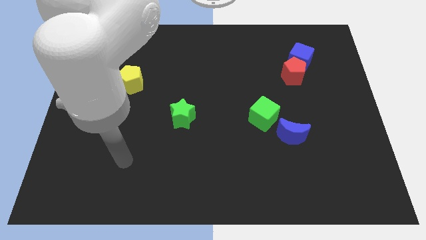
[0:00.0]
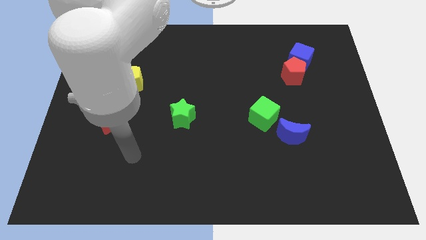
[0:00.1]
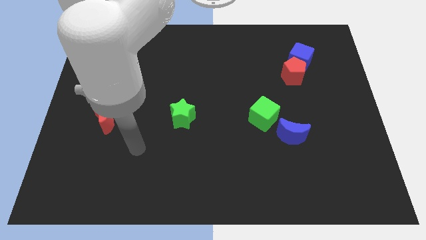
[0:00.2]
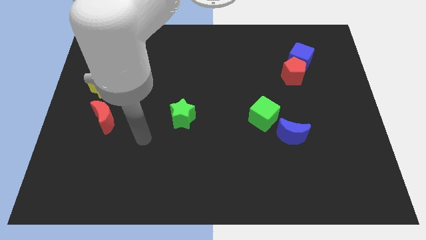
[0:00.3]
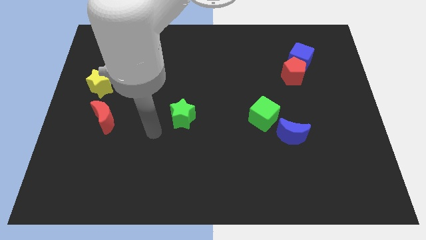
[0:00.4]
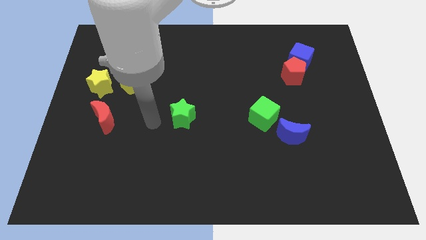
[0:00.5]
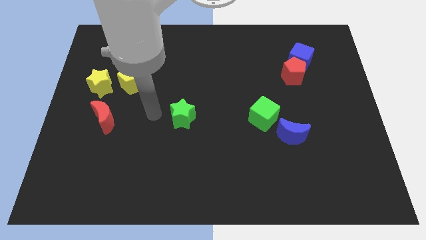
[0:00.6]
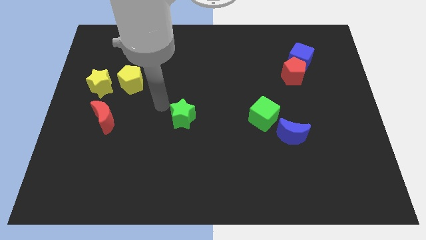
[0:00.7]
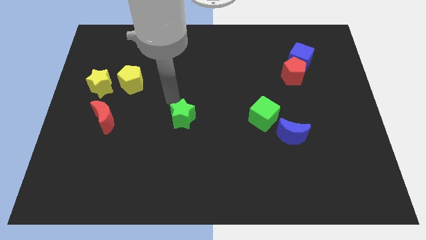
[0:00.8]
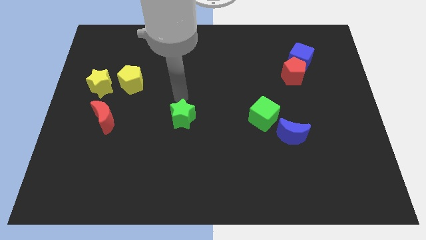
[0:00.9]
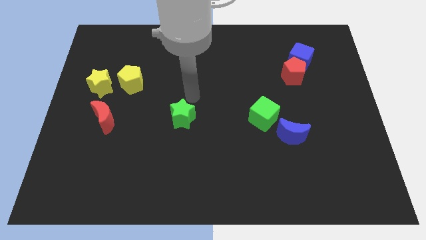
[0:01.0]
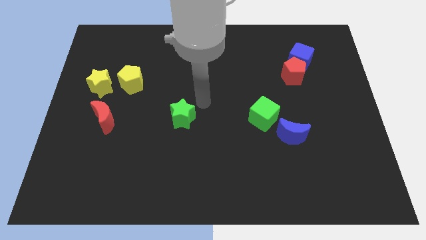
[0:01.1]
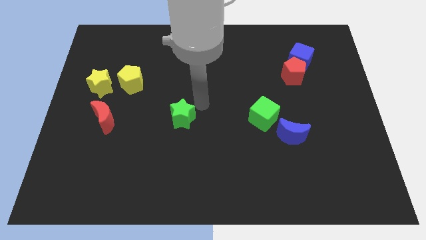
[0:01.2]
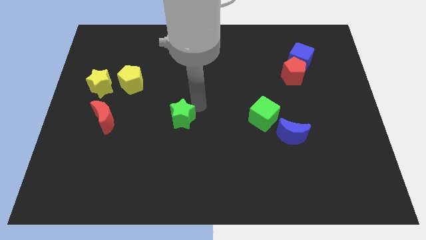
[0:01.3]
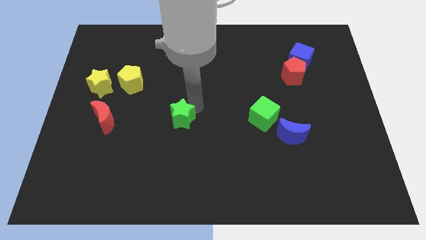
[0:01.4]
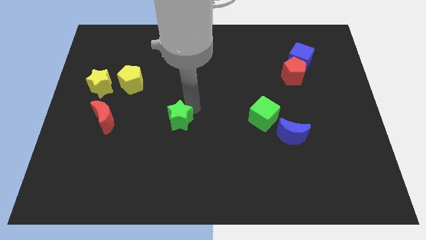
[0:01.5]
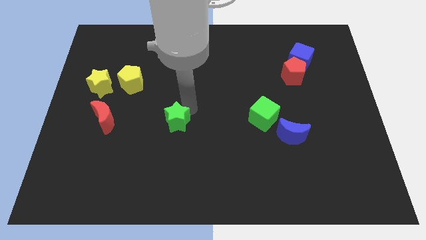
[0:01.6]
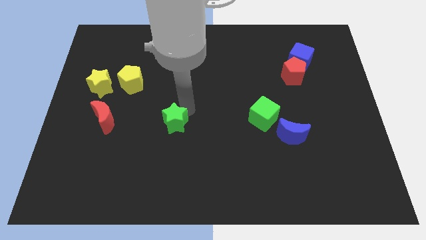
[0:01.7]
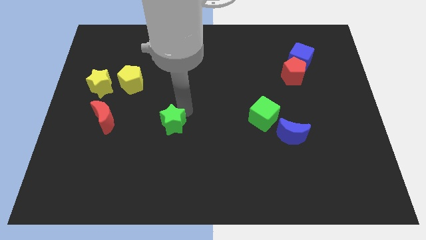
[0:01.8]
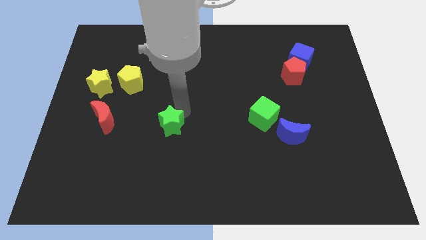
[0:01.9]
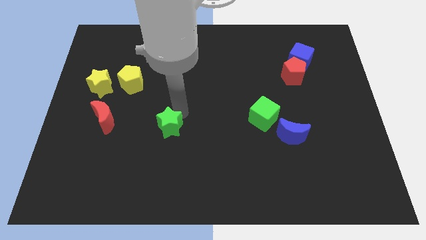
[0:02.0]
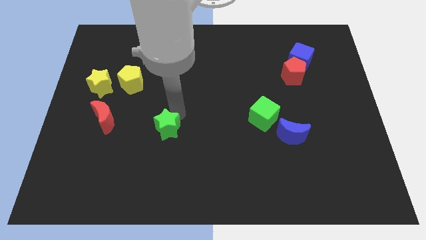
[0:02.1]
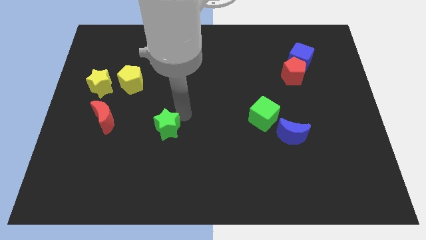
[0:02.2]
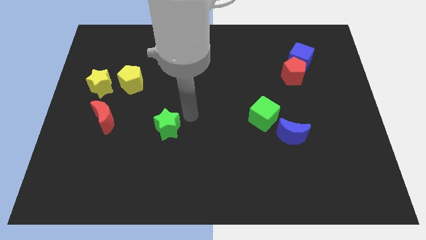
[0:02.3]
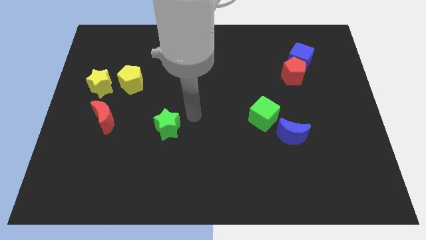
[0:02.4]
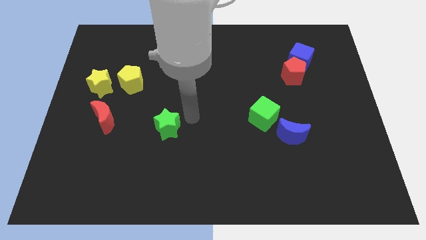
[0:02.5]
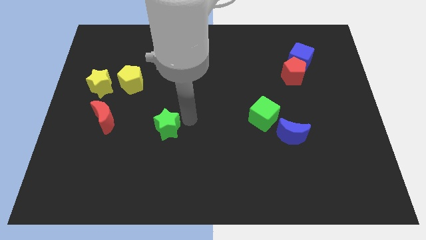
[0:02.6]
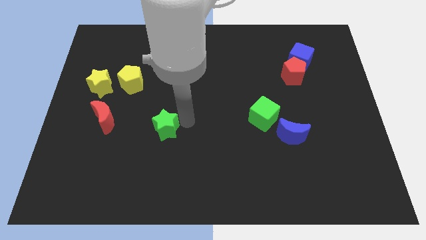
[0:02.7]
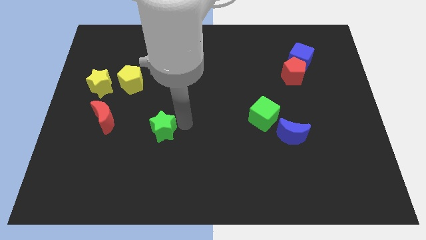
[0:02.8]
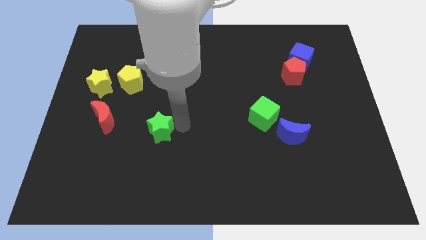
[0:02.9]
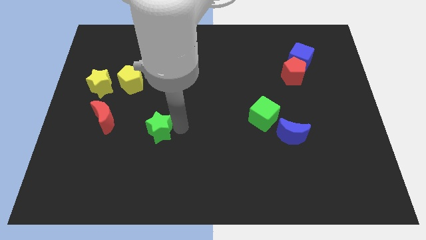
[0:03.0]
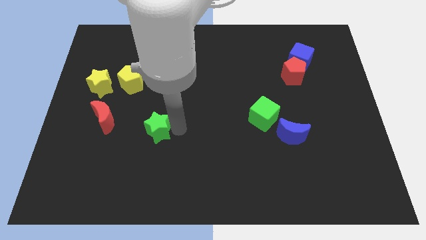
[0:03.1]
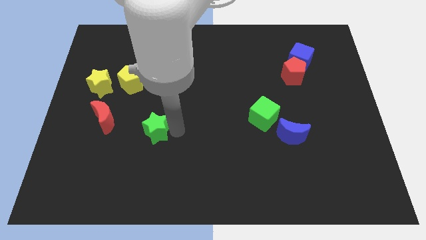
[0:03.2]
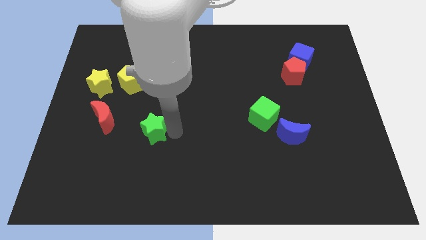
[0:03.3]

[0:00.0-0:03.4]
slightly slide the green star downwards and then to the left

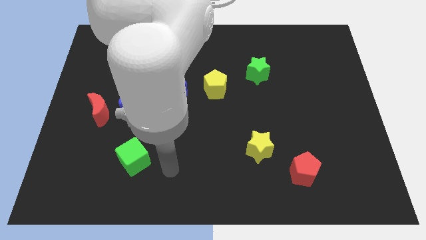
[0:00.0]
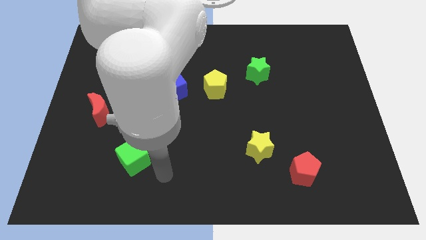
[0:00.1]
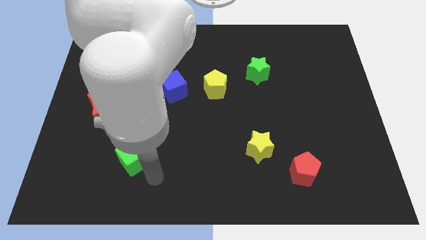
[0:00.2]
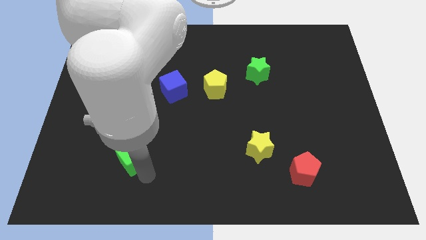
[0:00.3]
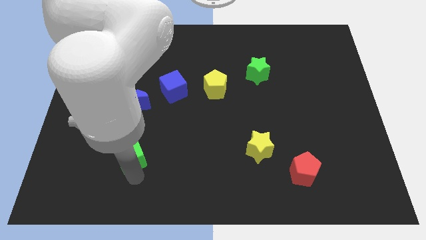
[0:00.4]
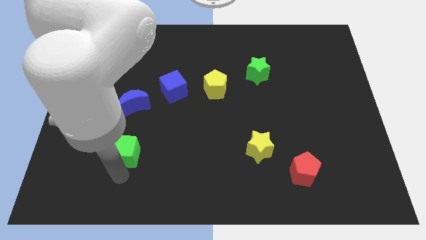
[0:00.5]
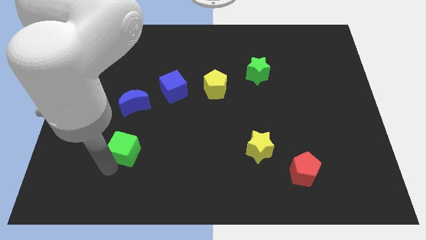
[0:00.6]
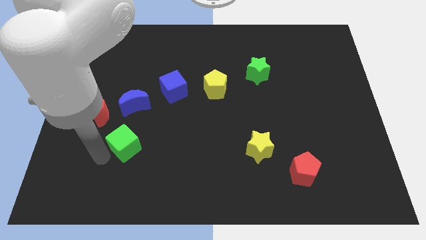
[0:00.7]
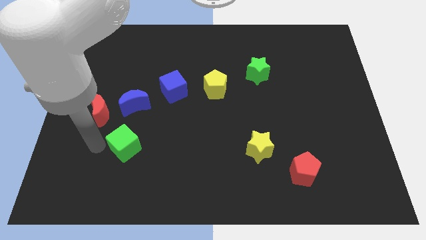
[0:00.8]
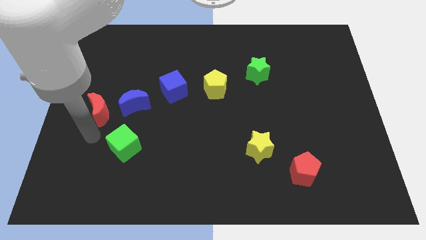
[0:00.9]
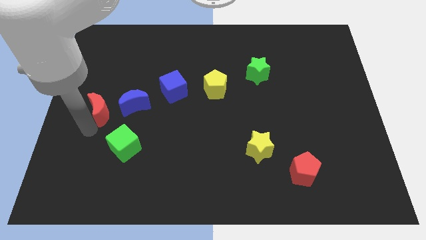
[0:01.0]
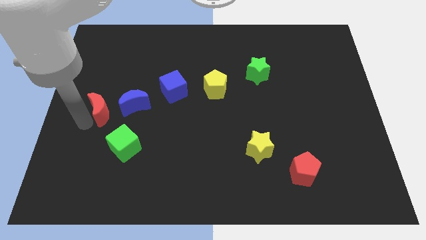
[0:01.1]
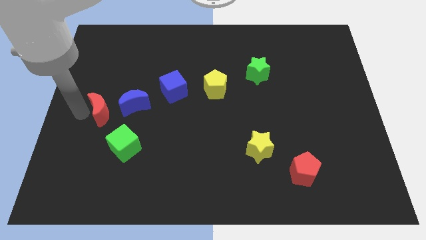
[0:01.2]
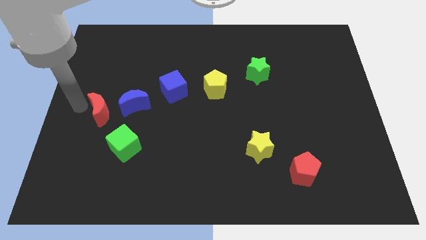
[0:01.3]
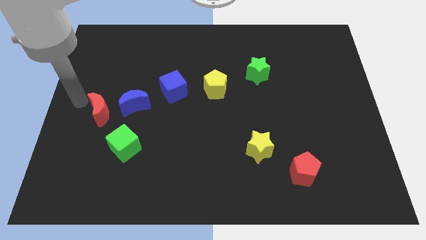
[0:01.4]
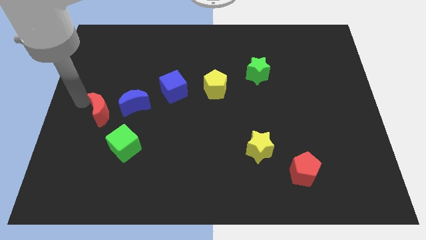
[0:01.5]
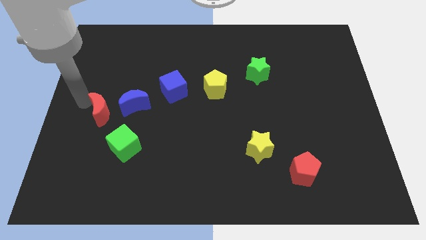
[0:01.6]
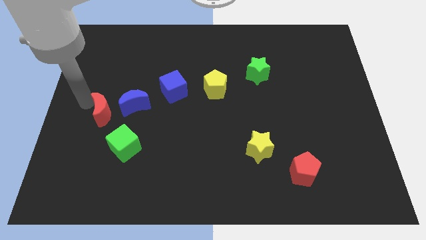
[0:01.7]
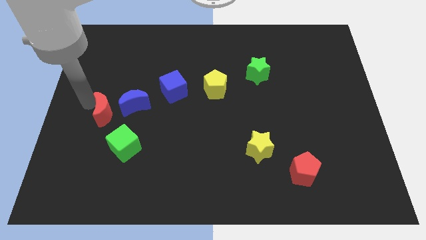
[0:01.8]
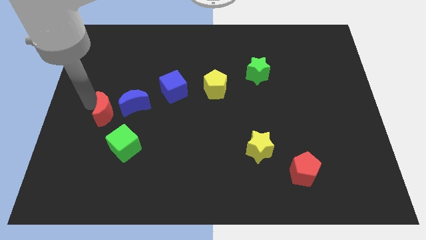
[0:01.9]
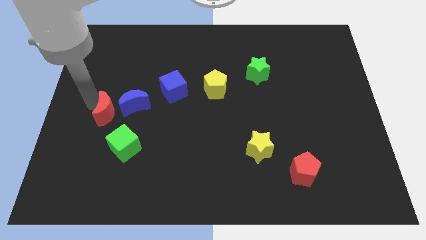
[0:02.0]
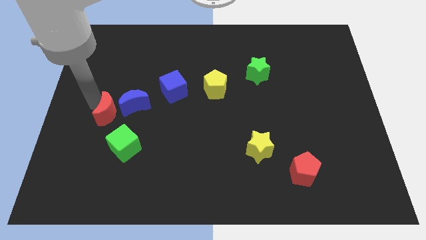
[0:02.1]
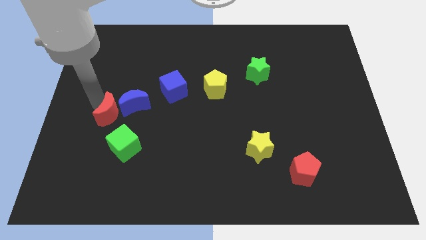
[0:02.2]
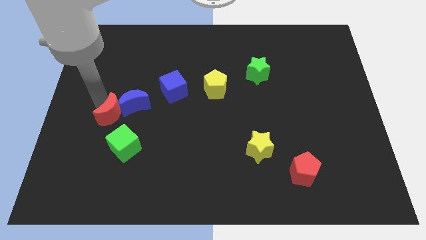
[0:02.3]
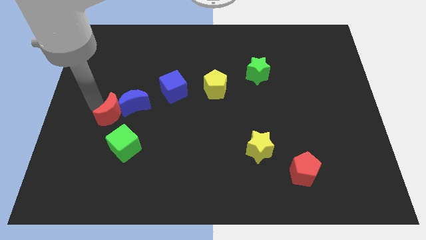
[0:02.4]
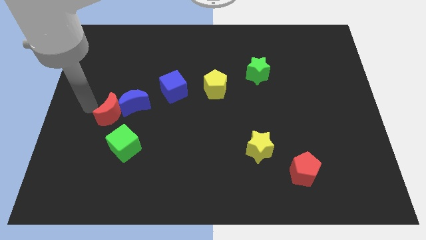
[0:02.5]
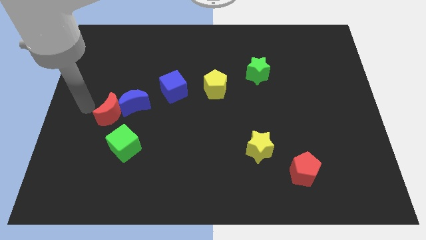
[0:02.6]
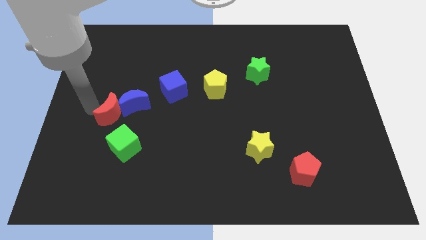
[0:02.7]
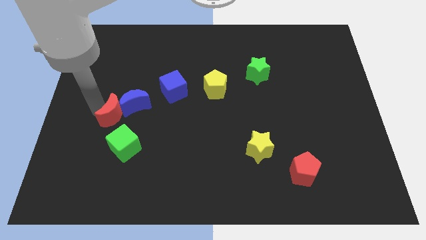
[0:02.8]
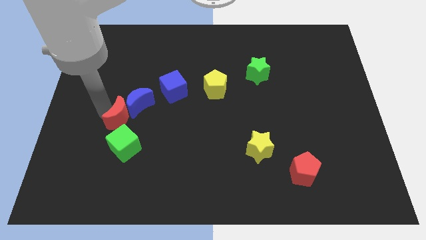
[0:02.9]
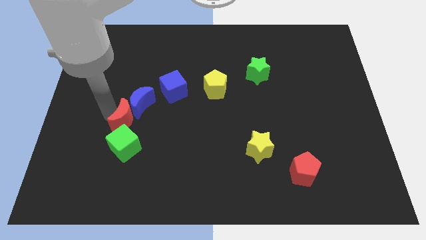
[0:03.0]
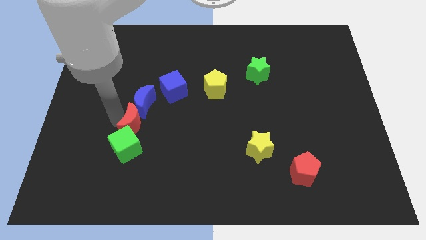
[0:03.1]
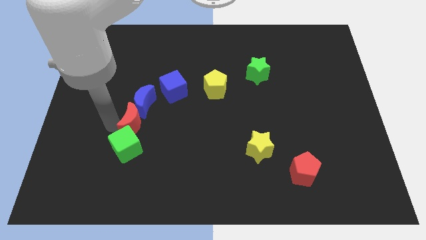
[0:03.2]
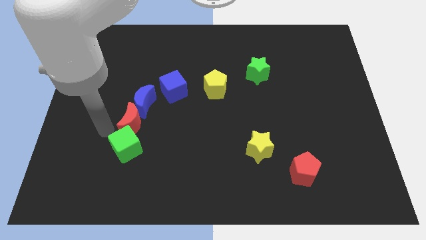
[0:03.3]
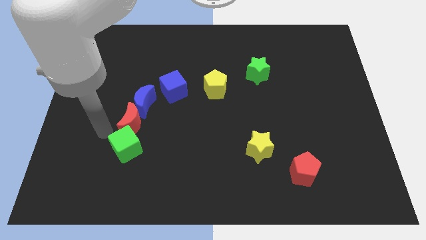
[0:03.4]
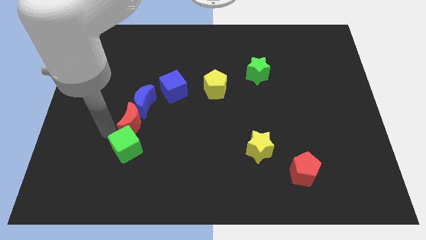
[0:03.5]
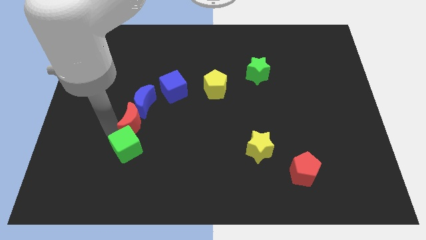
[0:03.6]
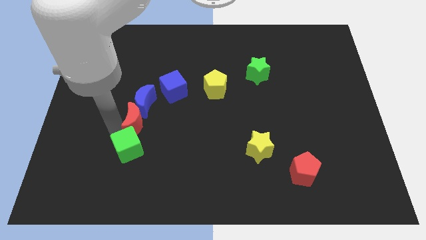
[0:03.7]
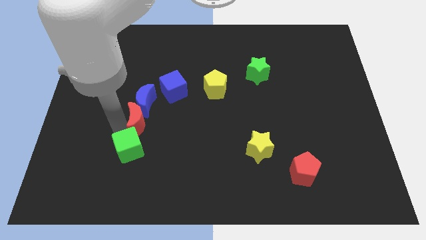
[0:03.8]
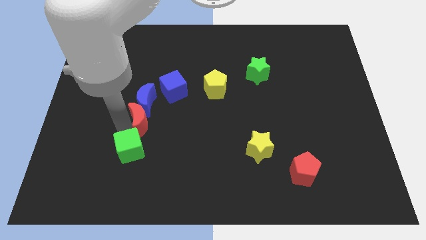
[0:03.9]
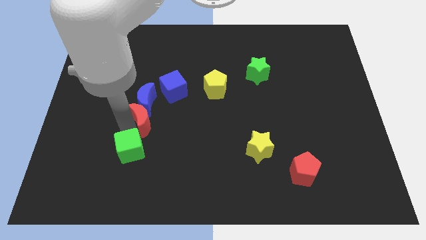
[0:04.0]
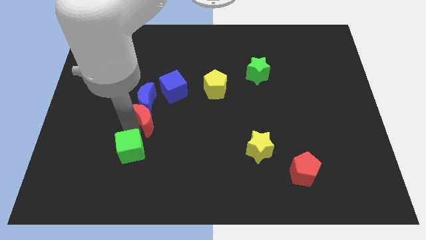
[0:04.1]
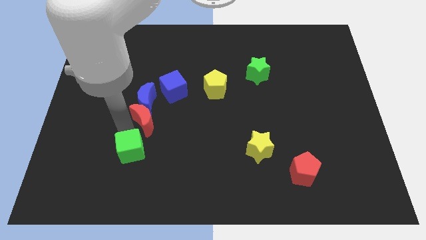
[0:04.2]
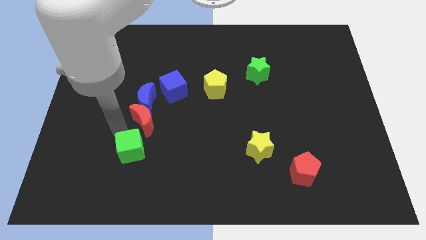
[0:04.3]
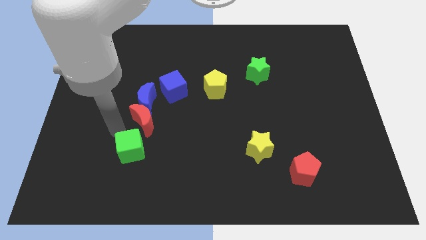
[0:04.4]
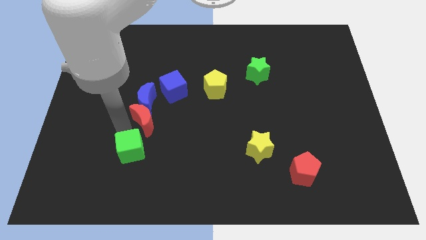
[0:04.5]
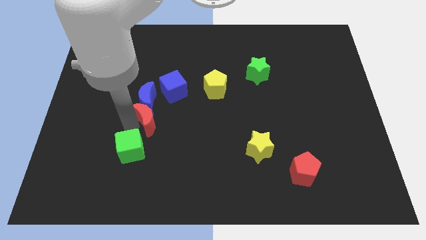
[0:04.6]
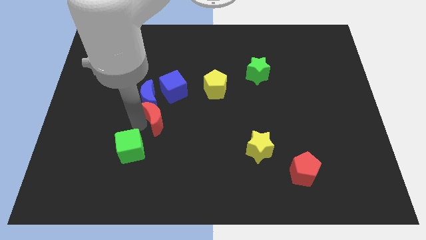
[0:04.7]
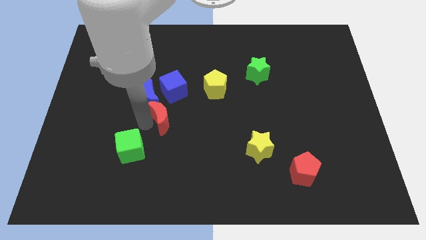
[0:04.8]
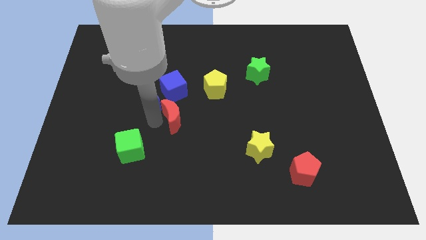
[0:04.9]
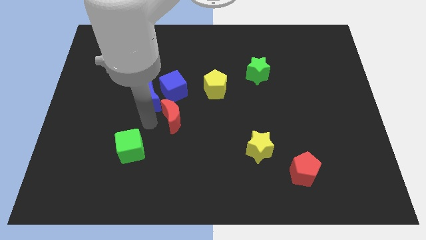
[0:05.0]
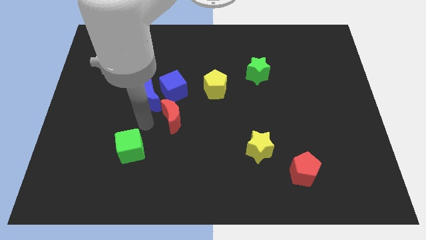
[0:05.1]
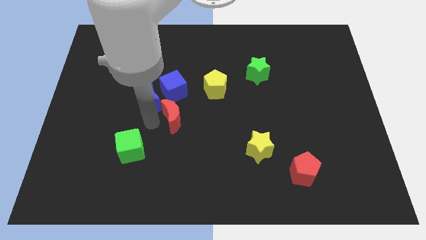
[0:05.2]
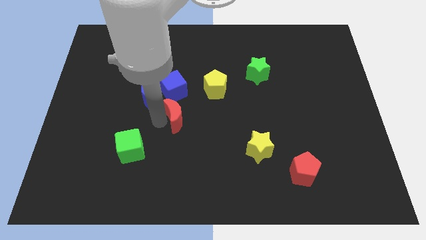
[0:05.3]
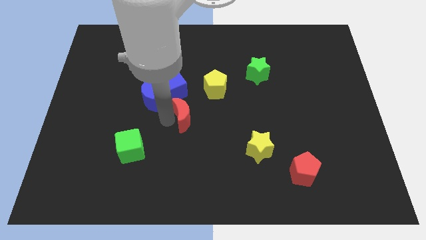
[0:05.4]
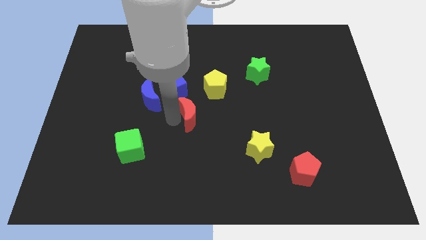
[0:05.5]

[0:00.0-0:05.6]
move the red moon right
